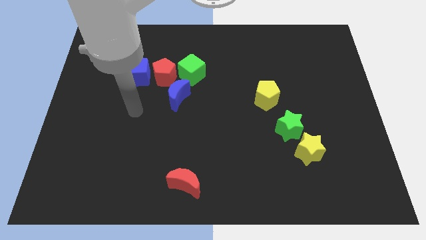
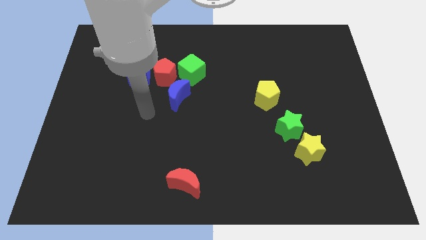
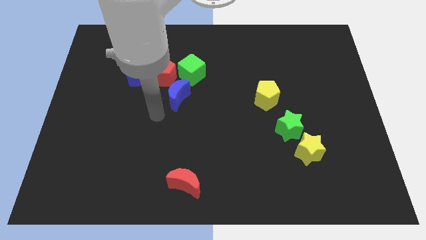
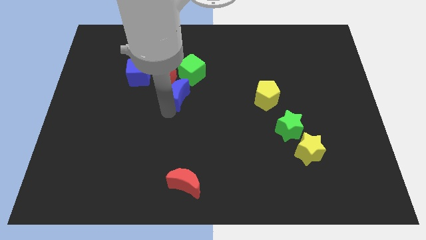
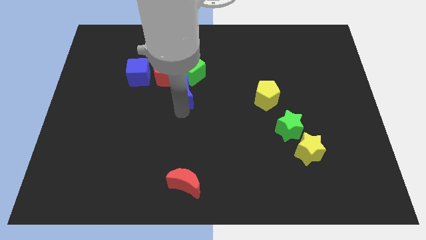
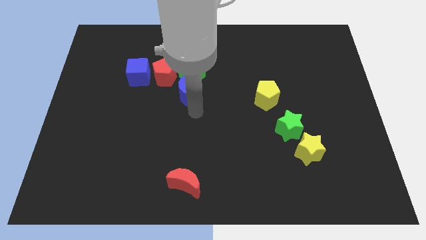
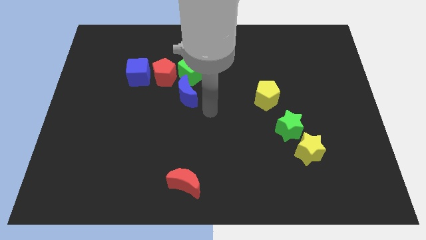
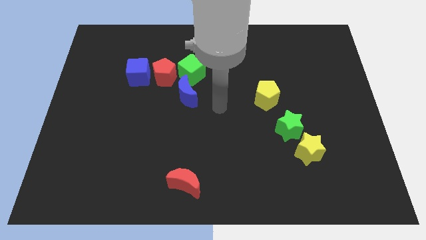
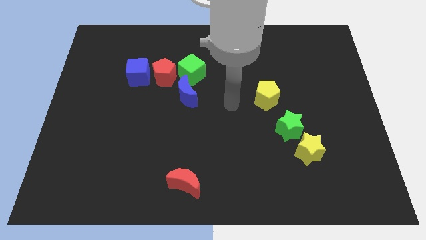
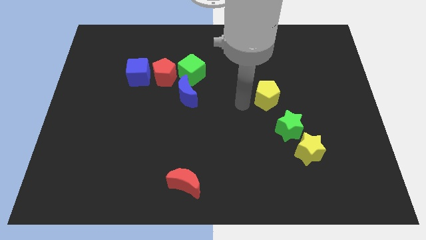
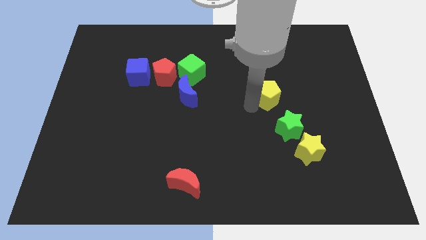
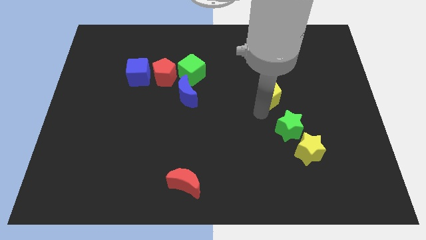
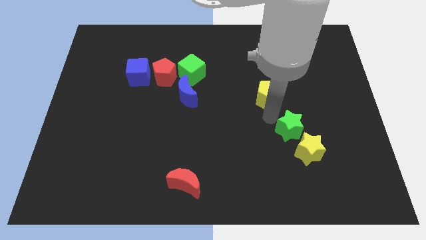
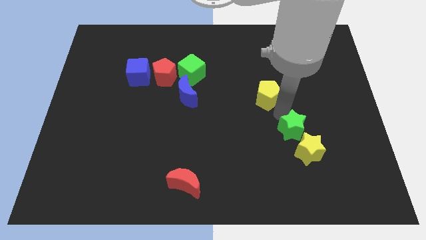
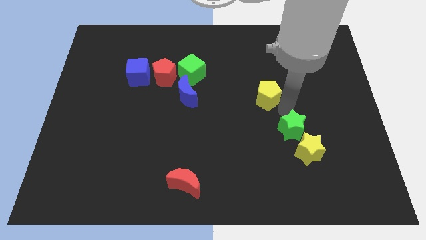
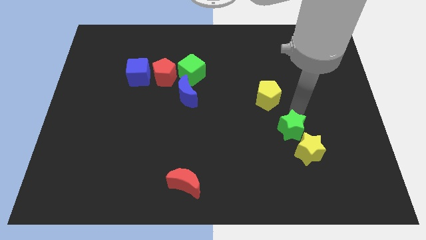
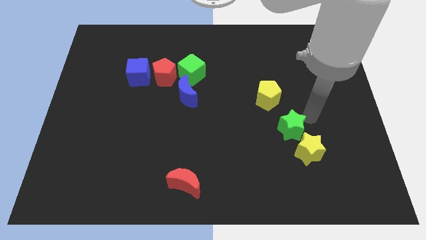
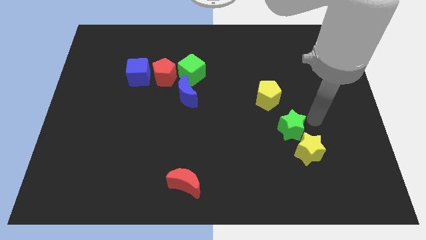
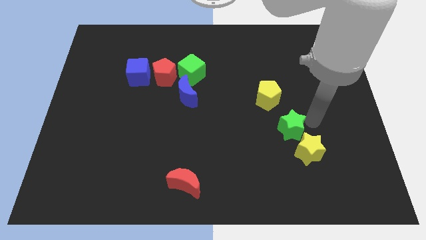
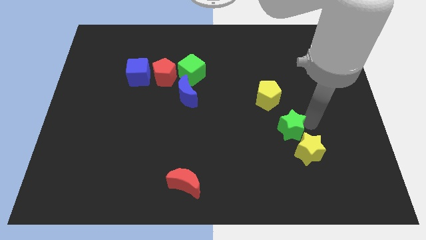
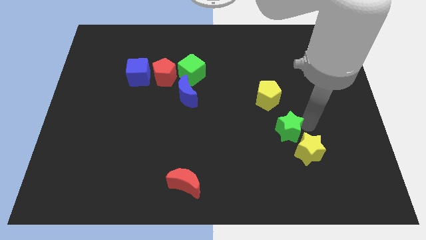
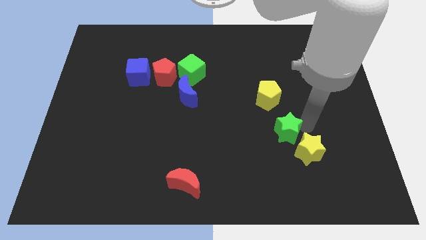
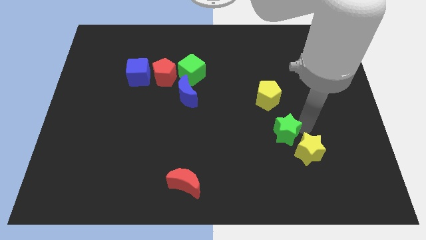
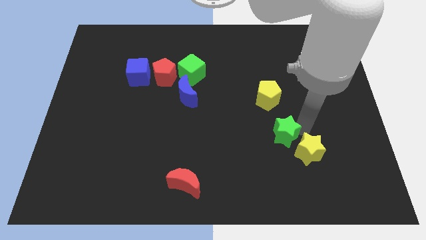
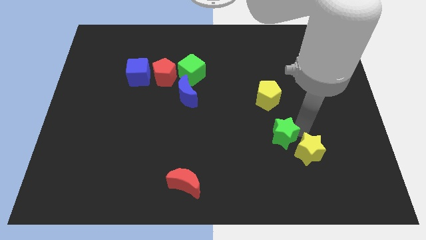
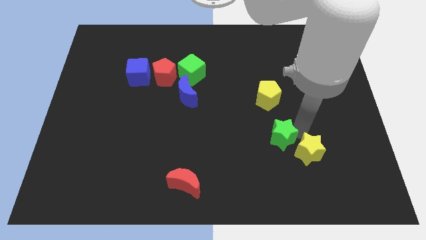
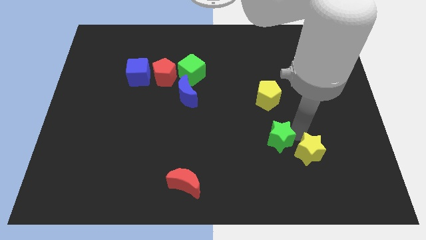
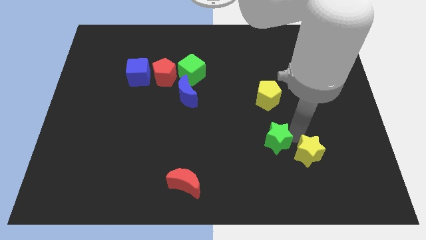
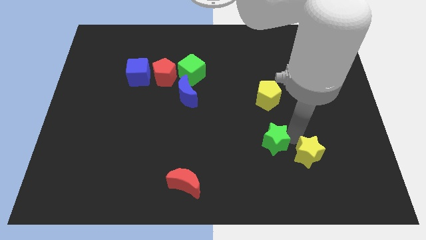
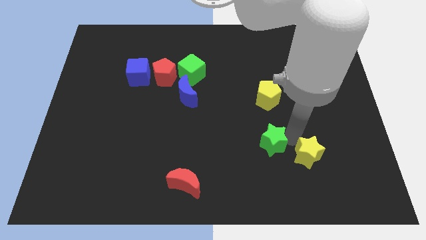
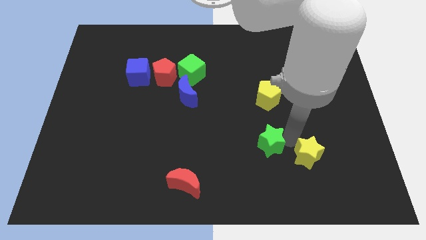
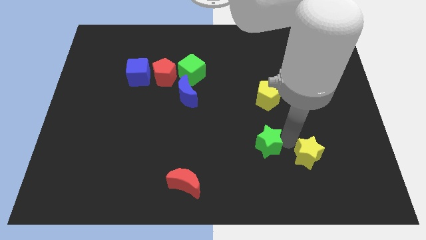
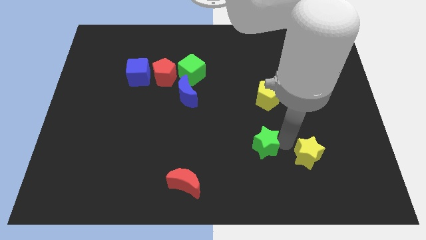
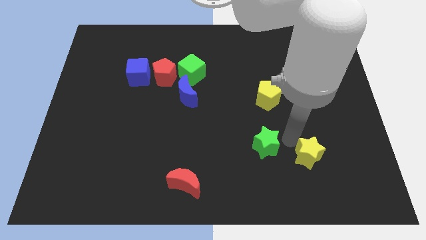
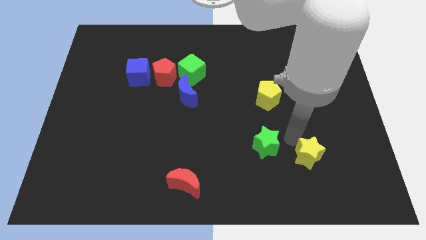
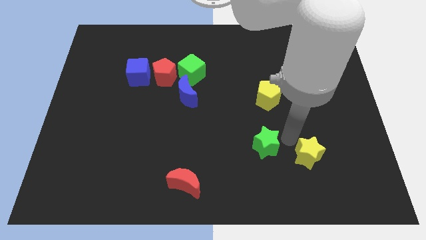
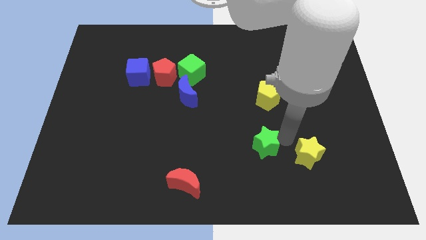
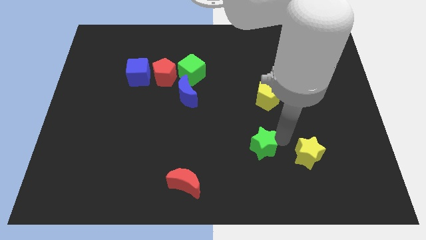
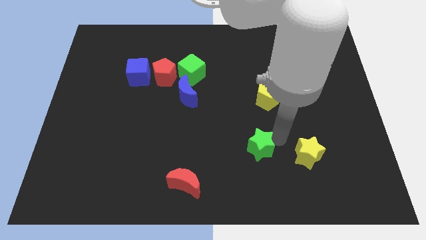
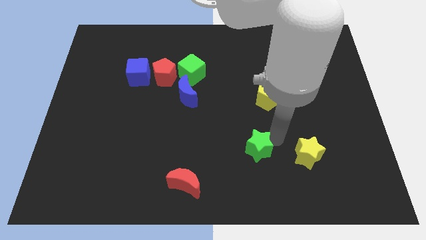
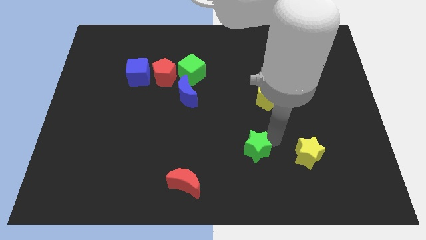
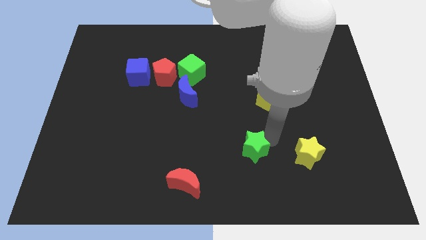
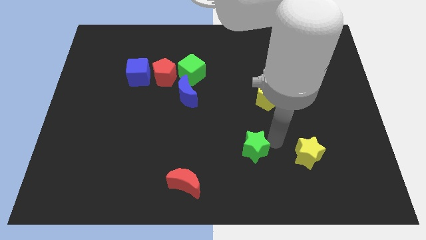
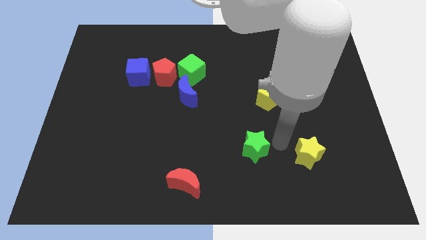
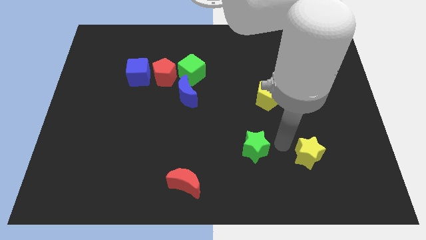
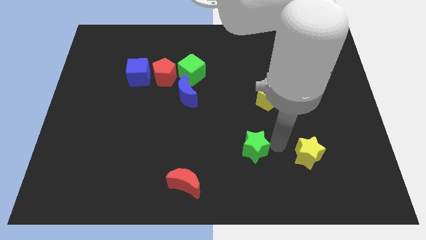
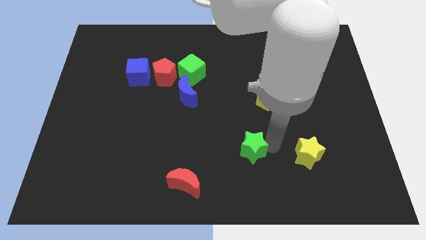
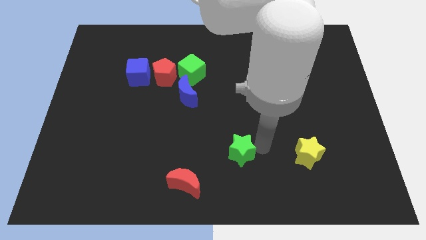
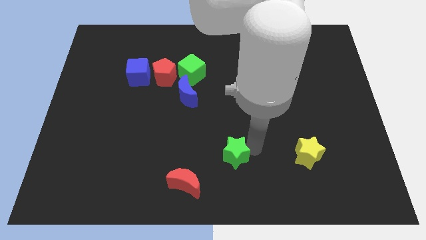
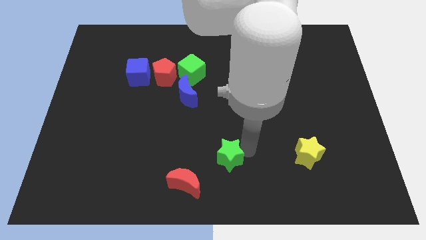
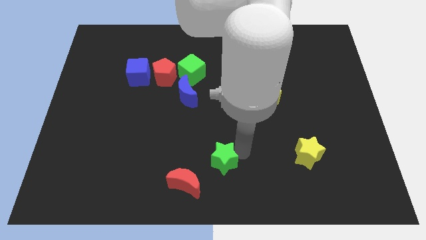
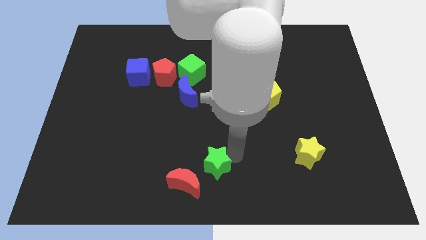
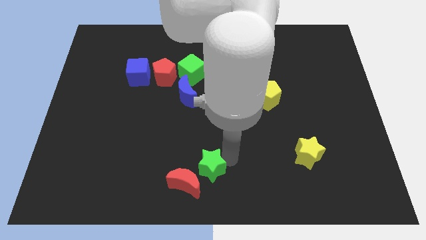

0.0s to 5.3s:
put the green star to the red moon

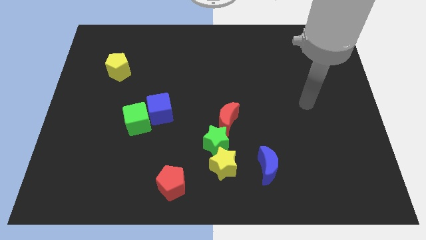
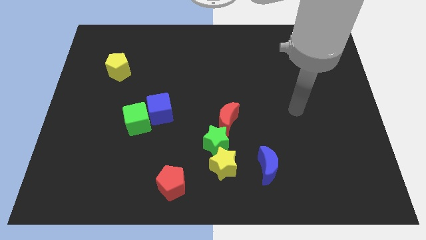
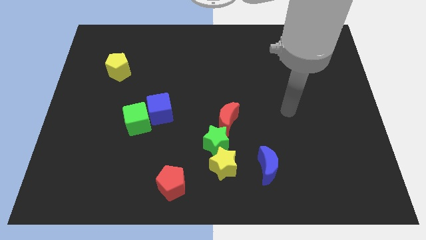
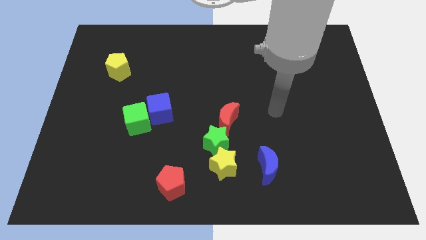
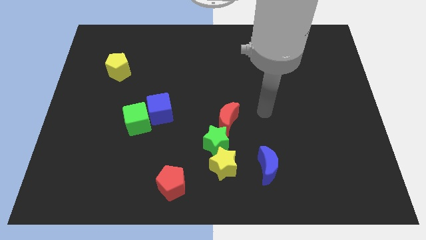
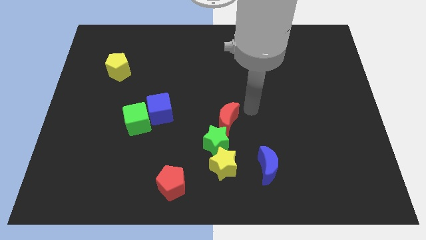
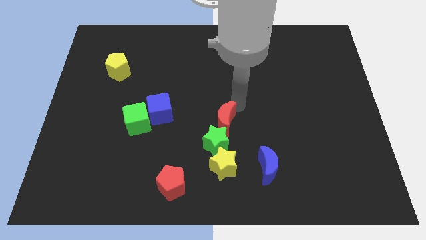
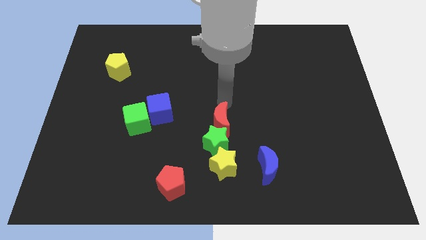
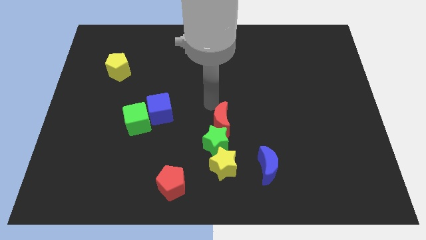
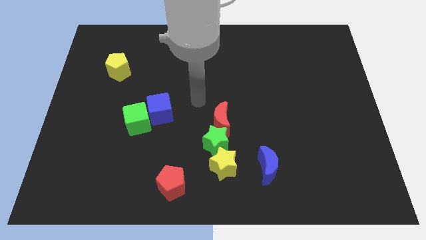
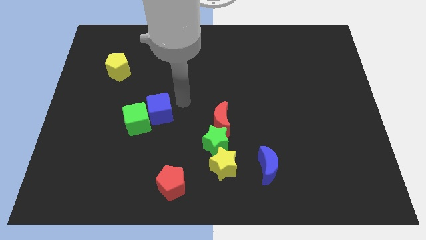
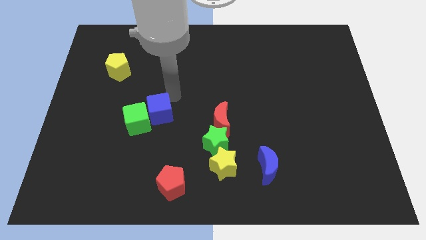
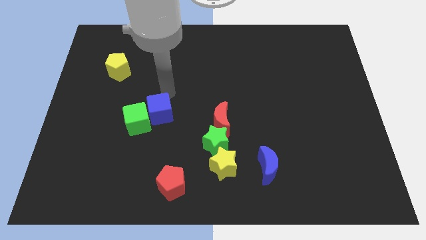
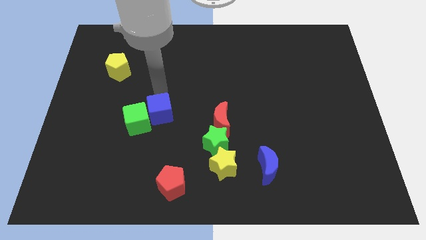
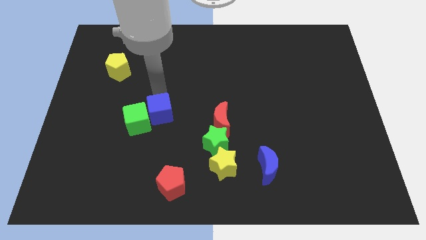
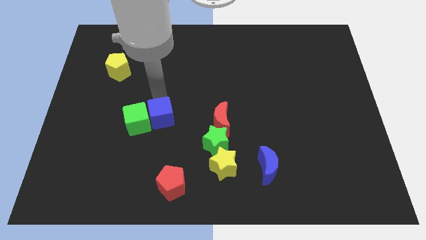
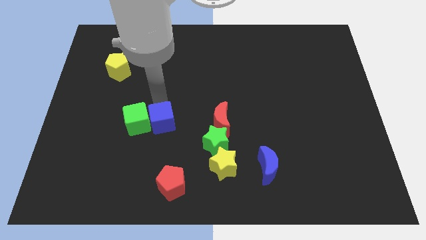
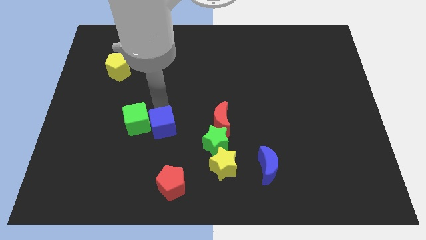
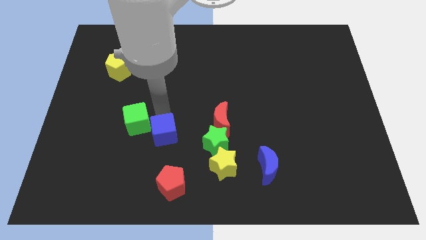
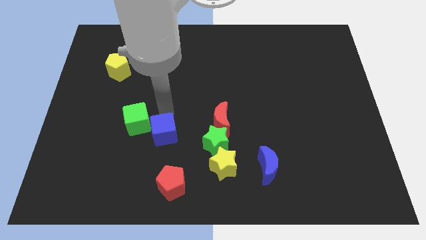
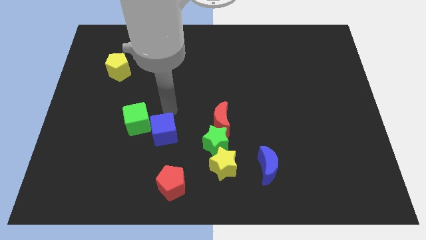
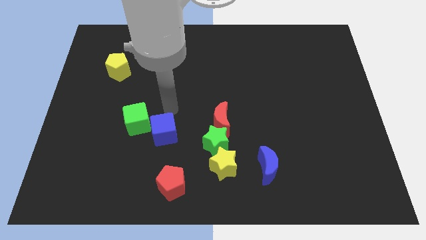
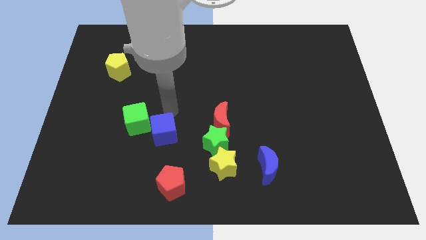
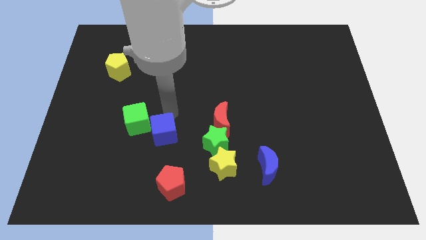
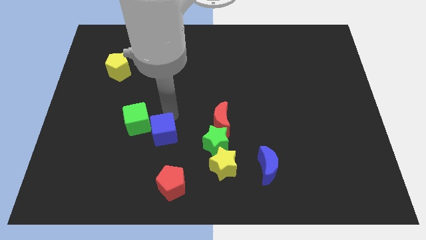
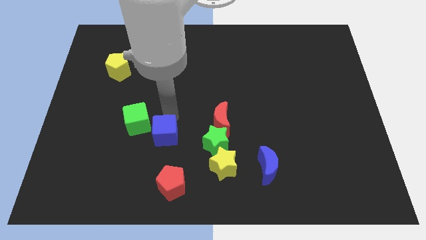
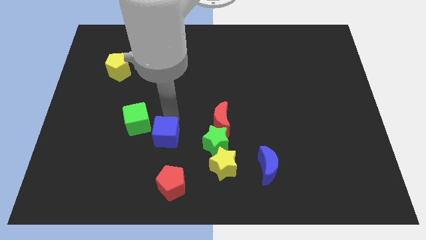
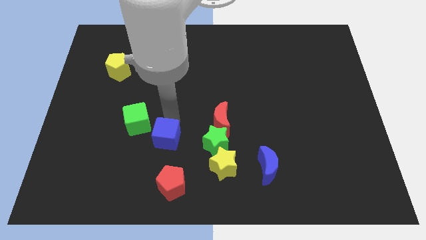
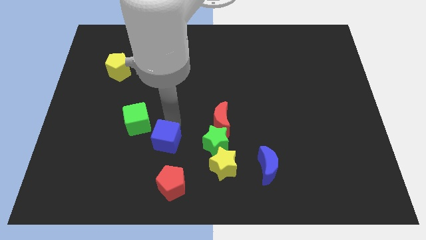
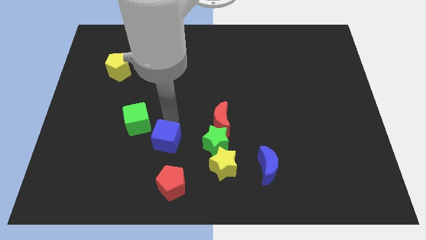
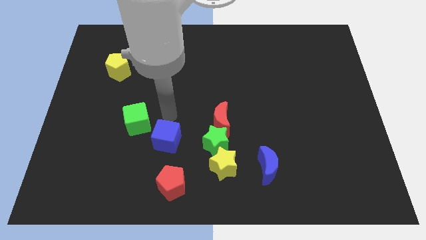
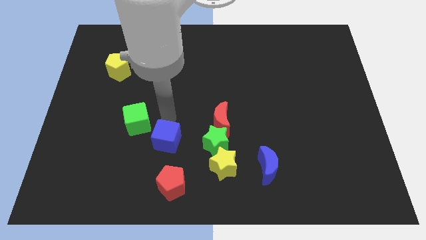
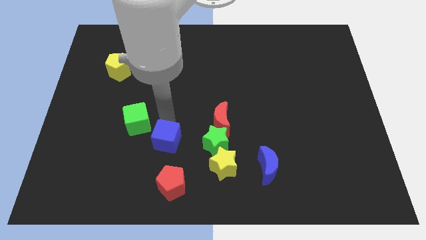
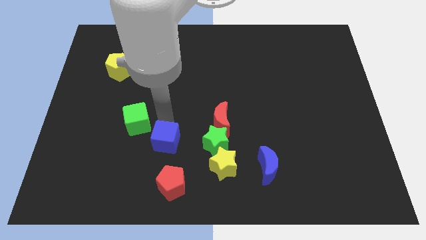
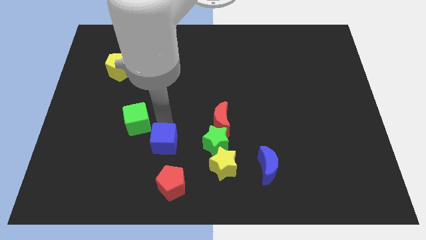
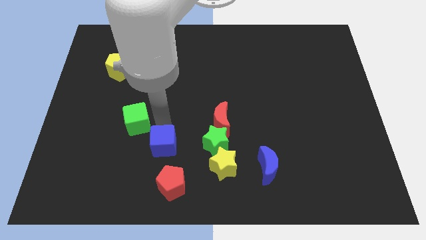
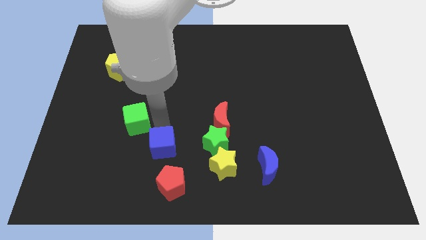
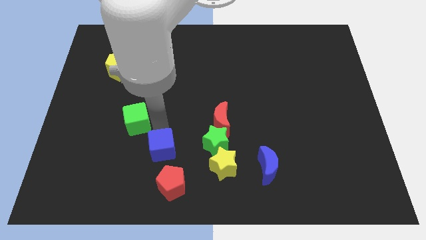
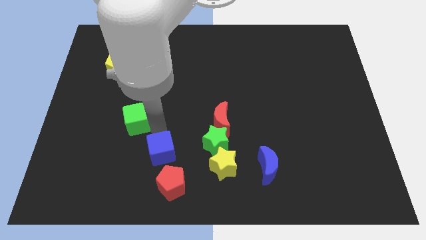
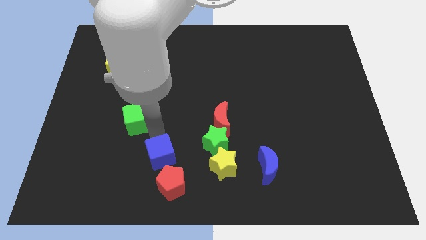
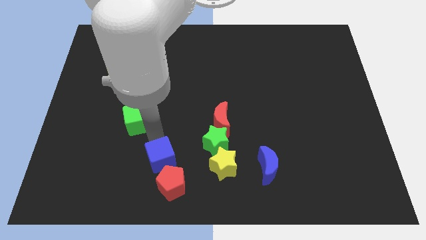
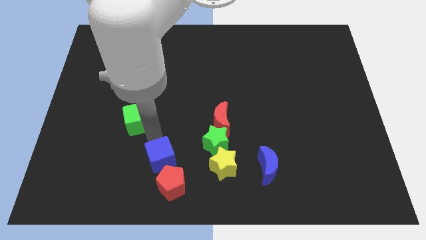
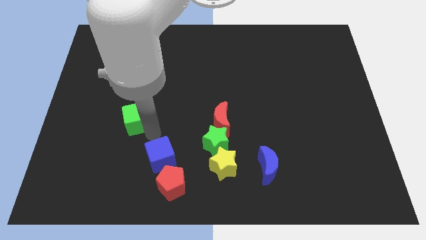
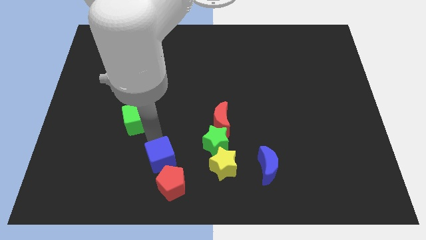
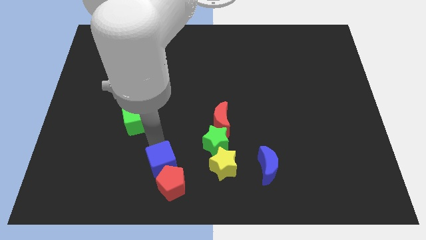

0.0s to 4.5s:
push the blue cube to the red pentagon
